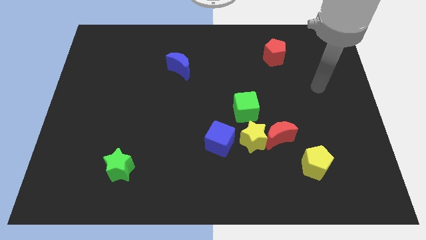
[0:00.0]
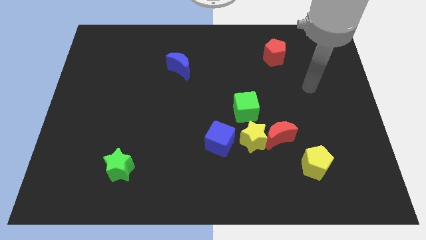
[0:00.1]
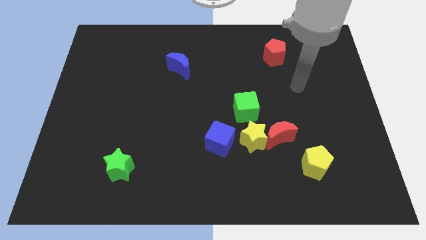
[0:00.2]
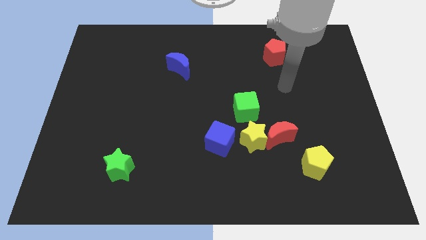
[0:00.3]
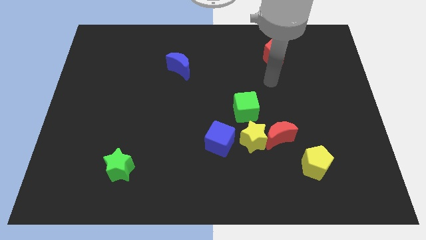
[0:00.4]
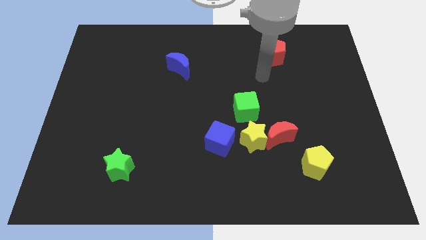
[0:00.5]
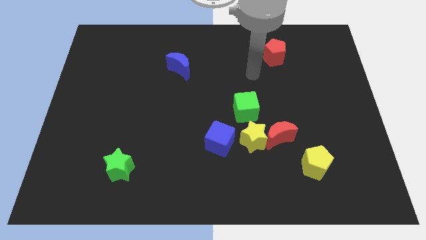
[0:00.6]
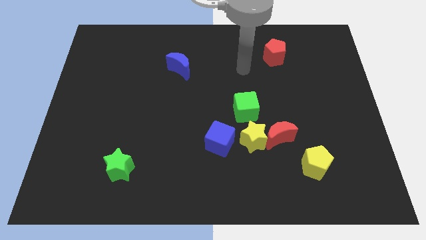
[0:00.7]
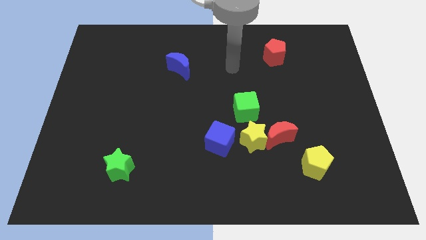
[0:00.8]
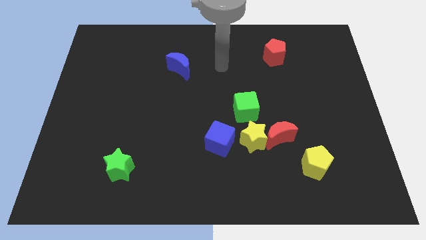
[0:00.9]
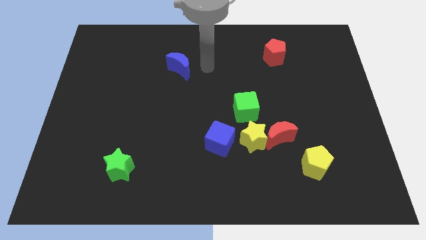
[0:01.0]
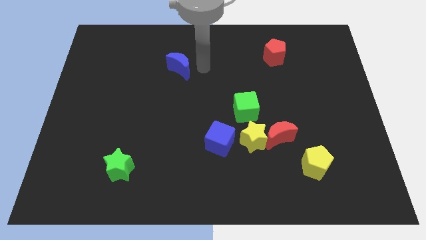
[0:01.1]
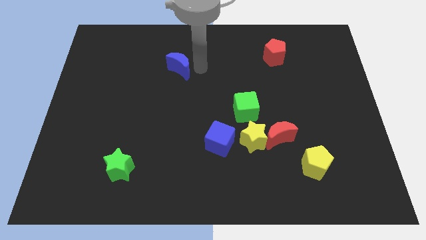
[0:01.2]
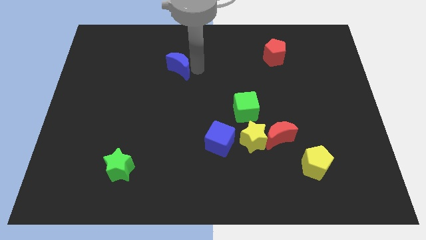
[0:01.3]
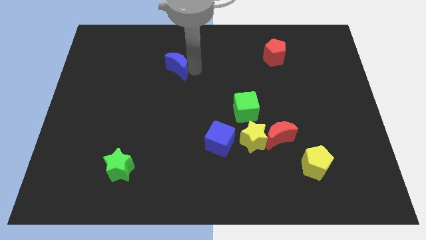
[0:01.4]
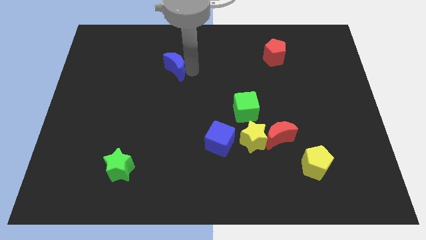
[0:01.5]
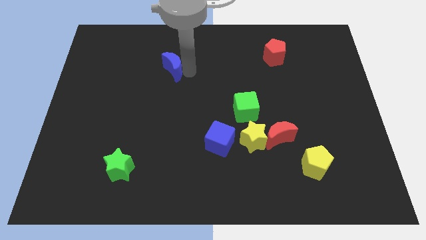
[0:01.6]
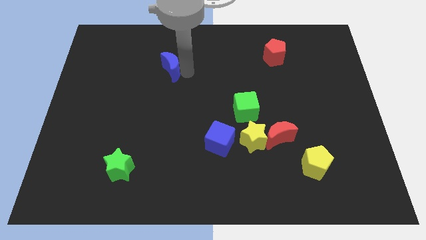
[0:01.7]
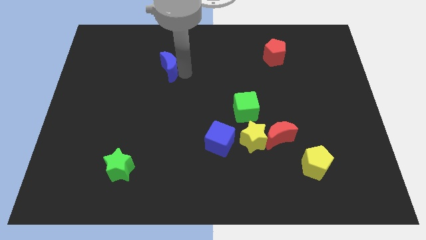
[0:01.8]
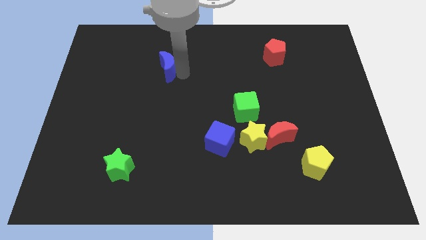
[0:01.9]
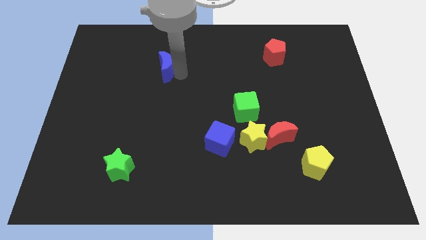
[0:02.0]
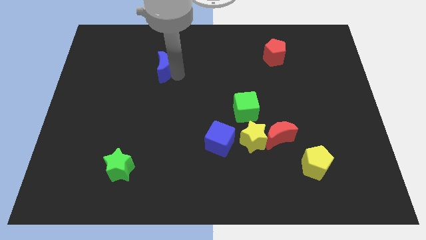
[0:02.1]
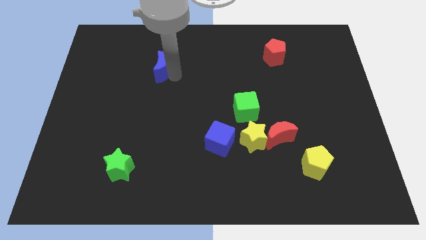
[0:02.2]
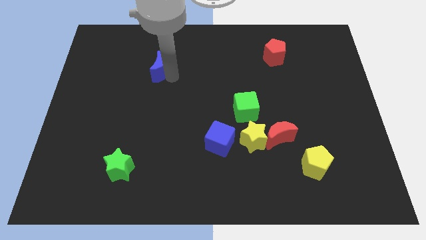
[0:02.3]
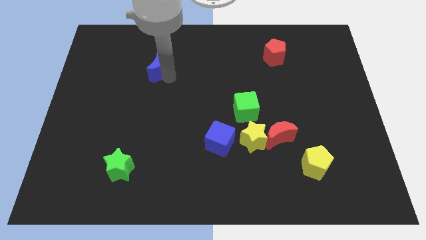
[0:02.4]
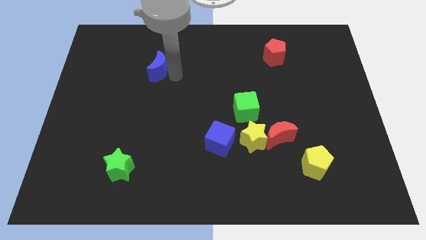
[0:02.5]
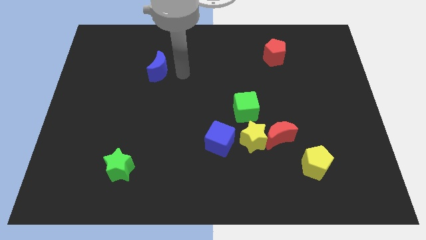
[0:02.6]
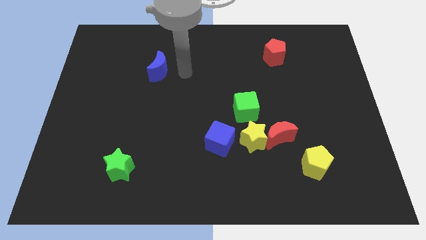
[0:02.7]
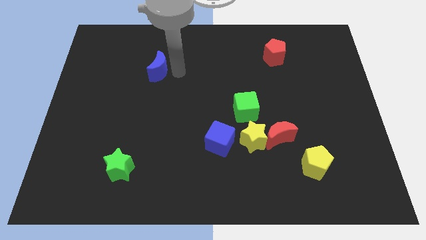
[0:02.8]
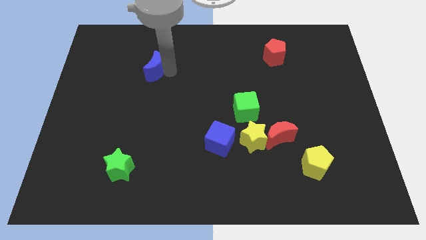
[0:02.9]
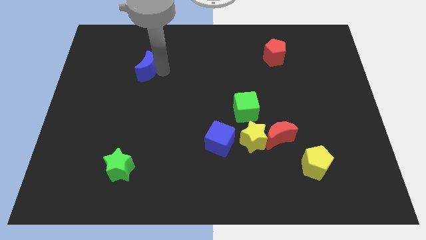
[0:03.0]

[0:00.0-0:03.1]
slide the blue moon a little bit to the left

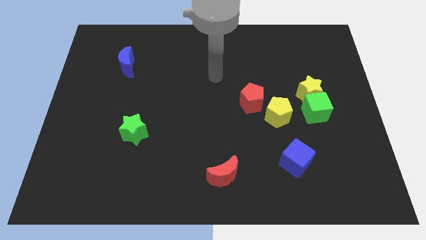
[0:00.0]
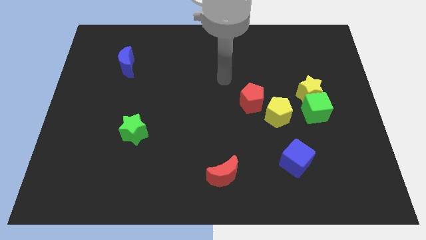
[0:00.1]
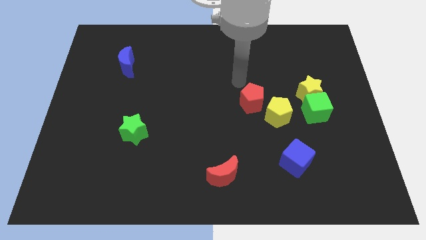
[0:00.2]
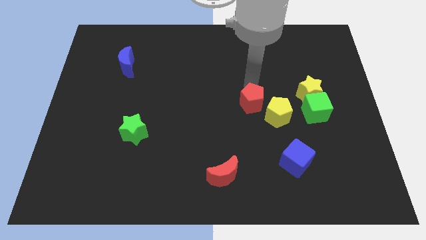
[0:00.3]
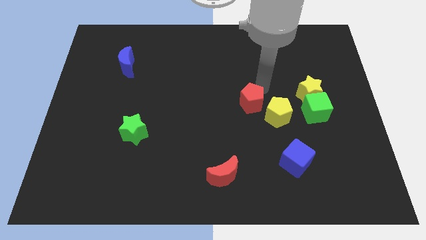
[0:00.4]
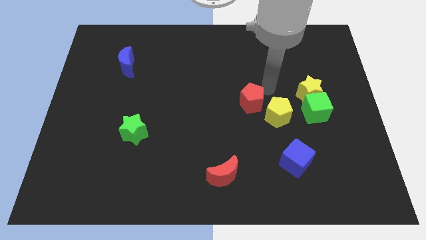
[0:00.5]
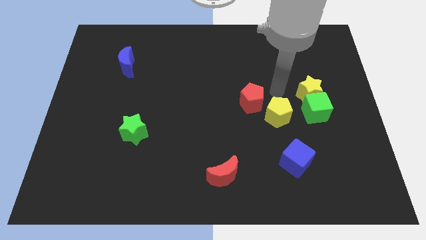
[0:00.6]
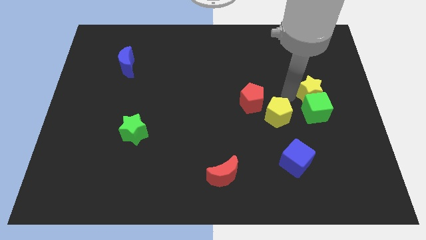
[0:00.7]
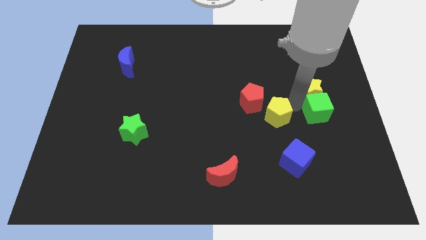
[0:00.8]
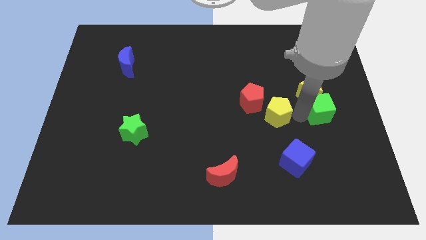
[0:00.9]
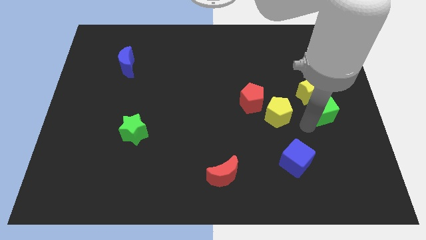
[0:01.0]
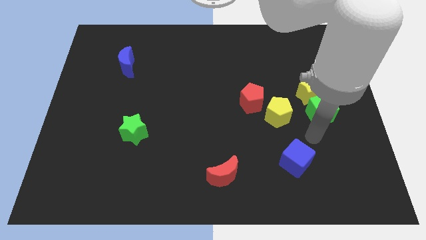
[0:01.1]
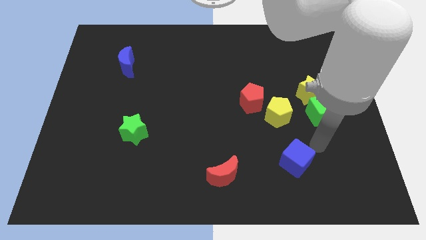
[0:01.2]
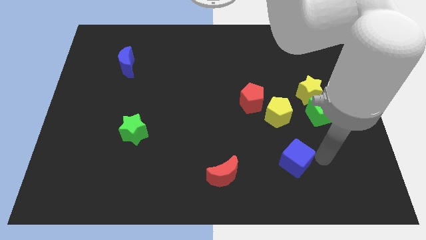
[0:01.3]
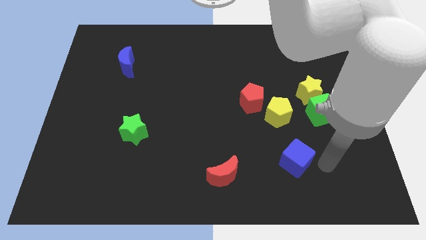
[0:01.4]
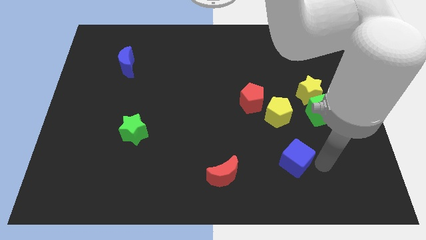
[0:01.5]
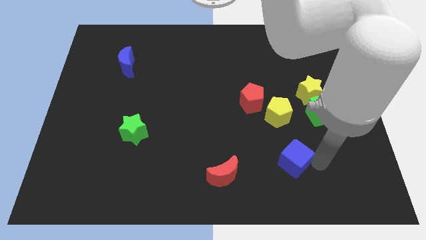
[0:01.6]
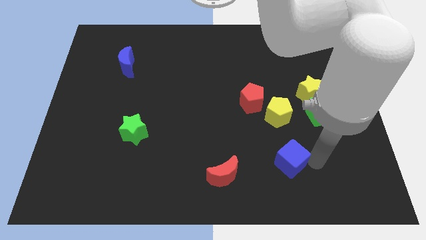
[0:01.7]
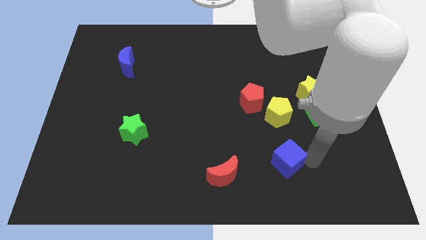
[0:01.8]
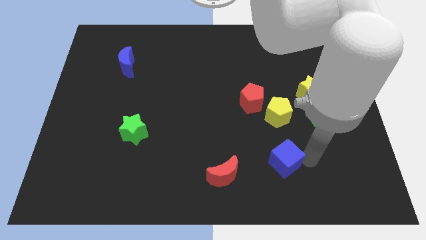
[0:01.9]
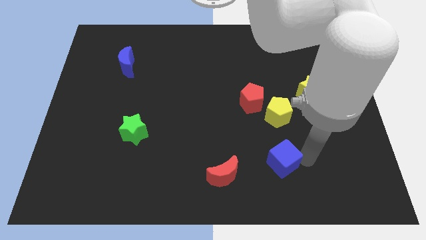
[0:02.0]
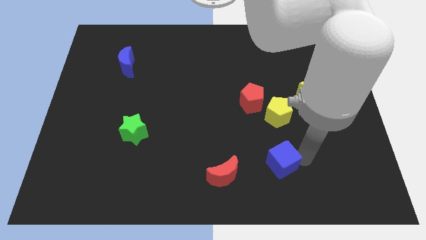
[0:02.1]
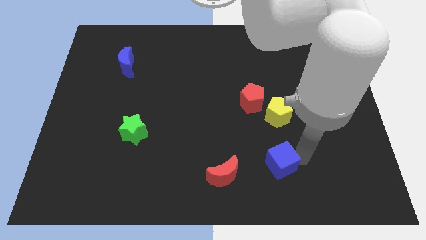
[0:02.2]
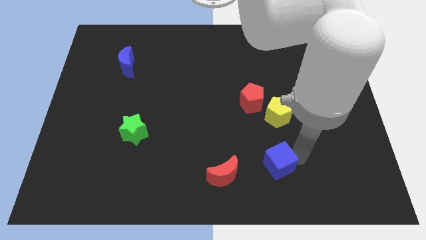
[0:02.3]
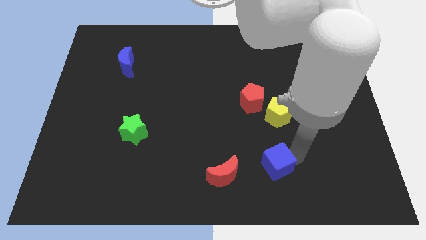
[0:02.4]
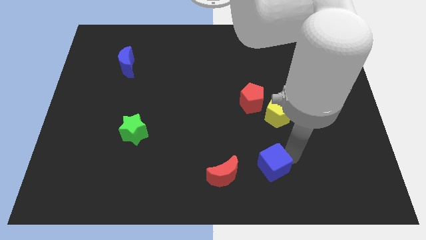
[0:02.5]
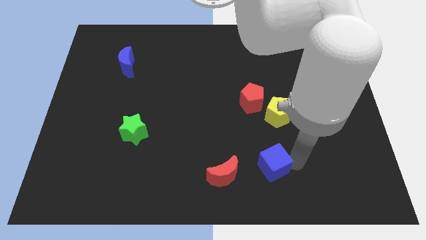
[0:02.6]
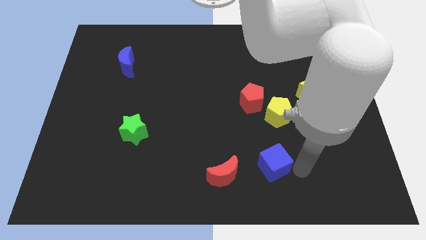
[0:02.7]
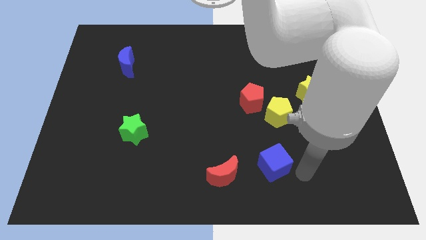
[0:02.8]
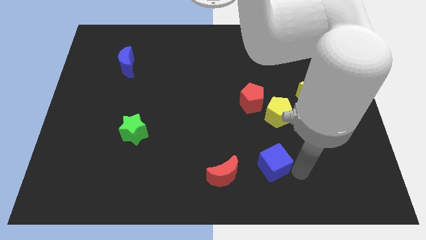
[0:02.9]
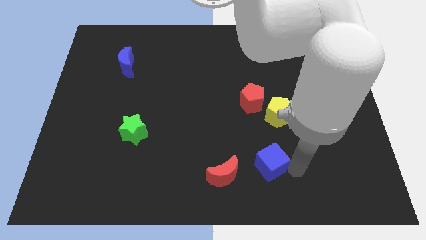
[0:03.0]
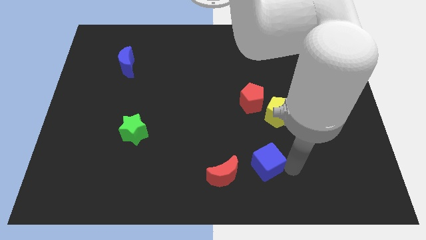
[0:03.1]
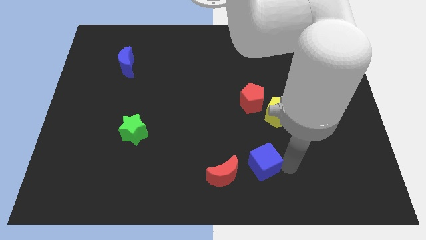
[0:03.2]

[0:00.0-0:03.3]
push the blue cube to the left a little

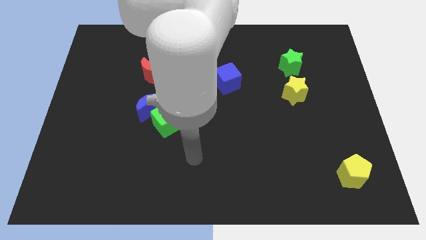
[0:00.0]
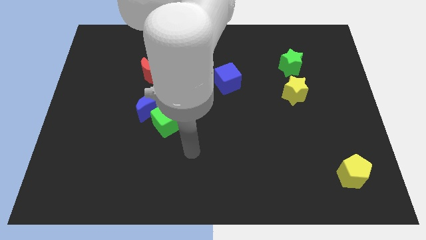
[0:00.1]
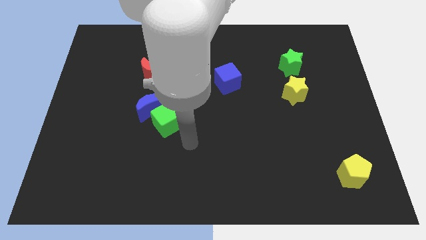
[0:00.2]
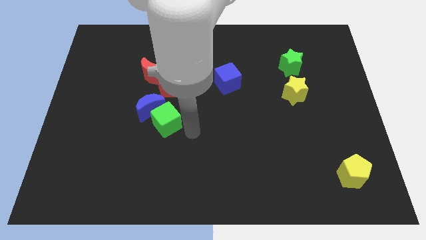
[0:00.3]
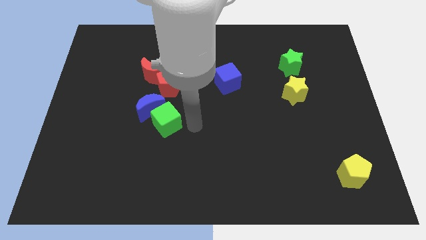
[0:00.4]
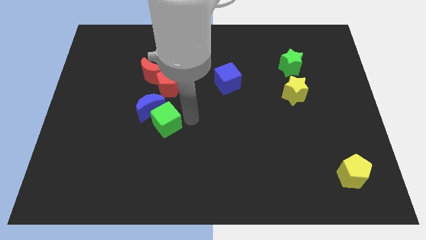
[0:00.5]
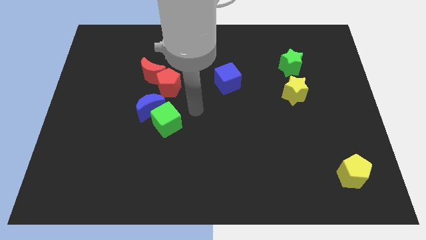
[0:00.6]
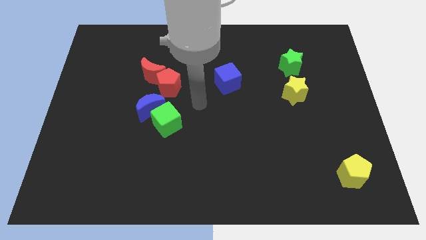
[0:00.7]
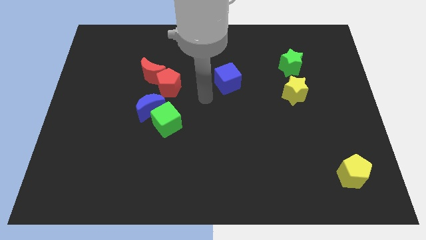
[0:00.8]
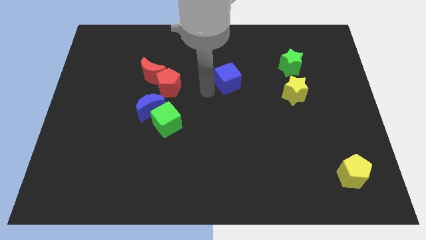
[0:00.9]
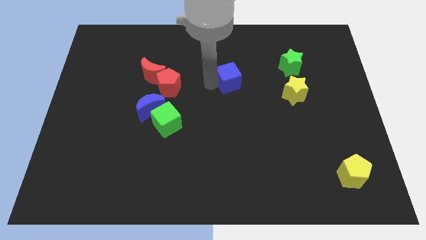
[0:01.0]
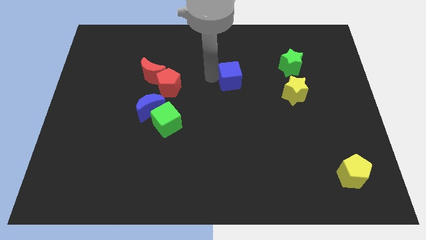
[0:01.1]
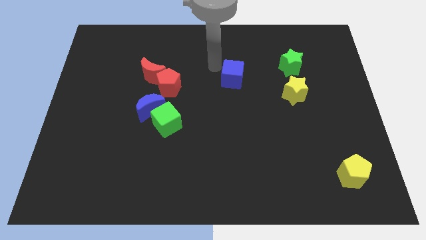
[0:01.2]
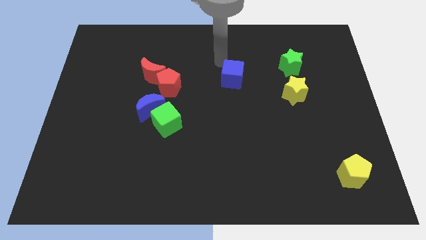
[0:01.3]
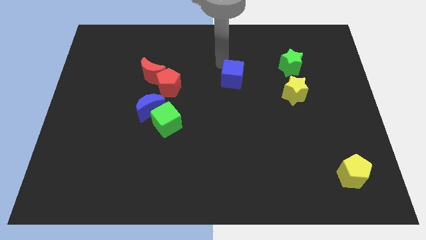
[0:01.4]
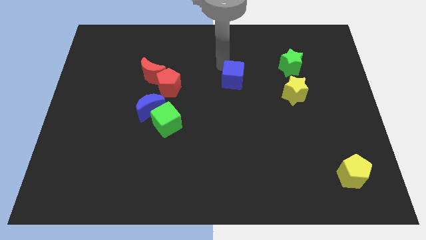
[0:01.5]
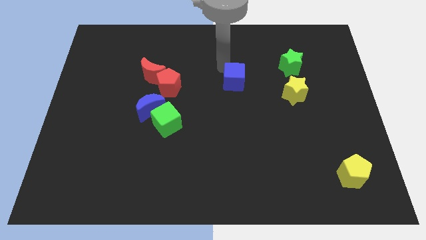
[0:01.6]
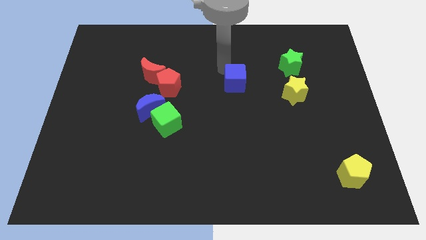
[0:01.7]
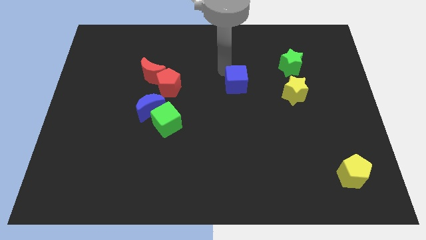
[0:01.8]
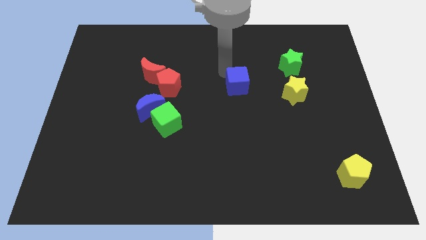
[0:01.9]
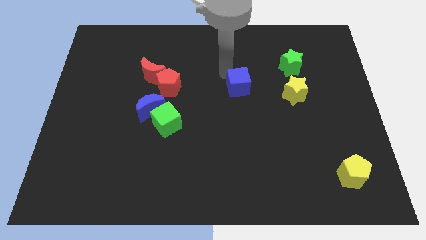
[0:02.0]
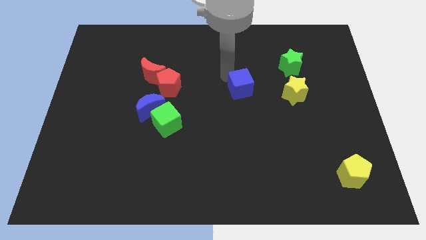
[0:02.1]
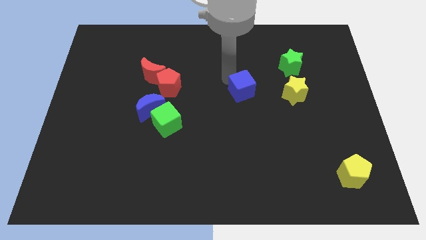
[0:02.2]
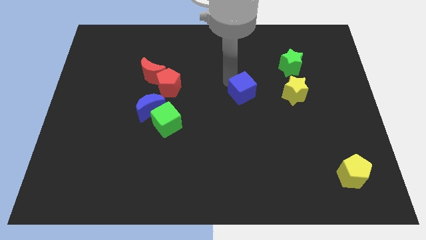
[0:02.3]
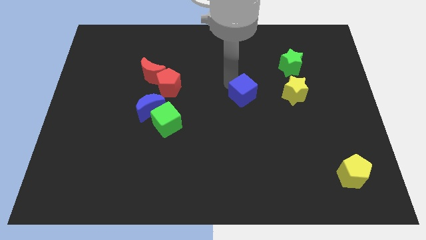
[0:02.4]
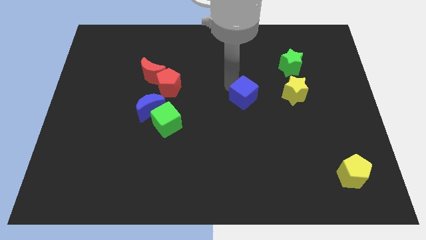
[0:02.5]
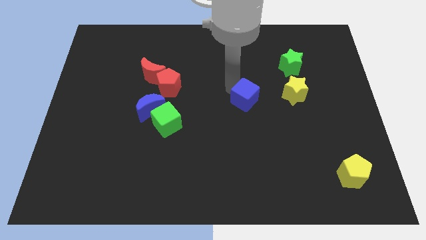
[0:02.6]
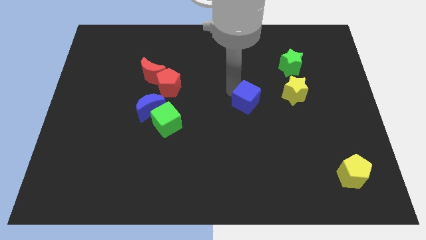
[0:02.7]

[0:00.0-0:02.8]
push the blue cube downwards and right diagonally a little bit
